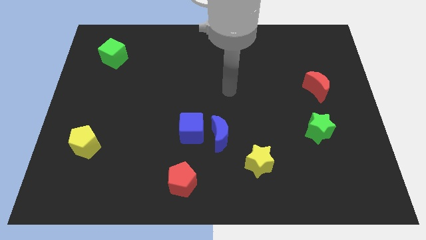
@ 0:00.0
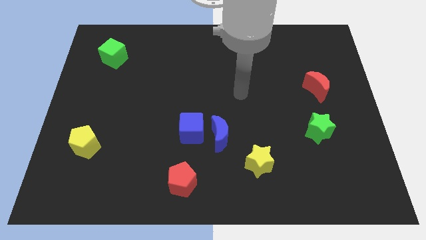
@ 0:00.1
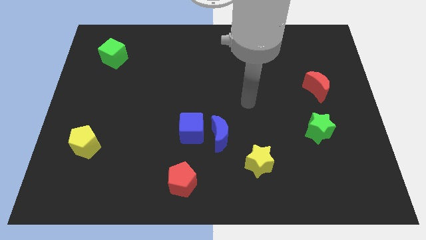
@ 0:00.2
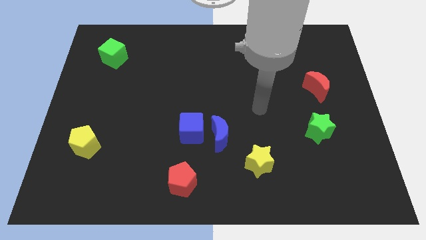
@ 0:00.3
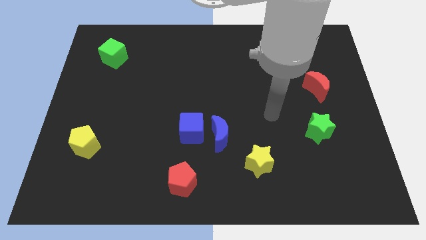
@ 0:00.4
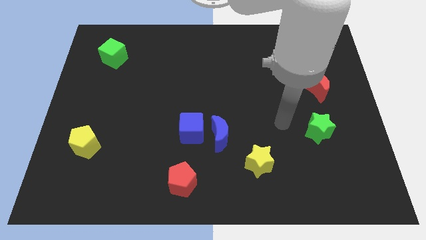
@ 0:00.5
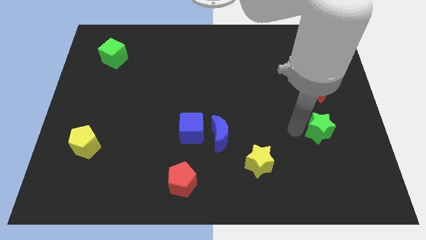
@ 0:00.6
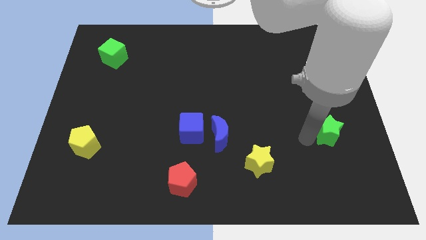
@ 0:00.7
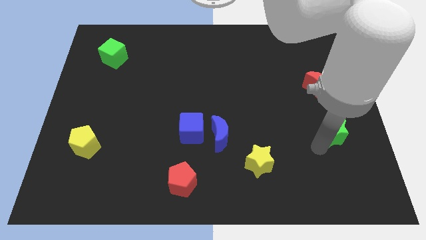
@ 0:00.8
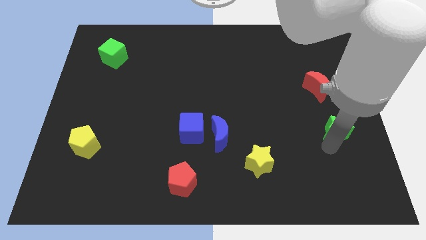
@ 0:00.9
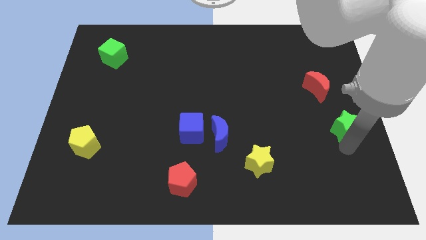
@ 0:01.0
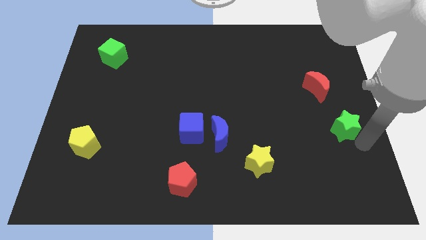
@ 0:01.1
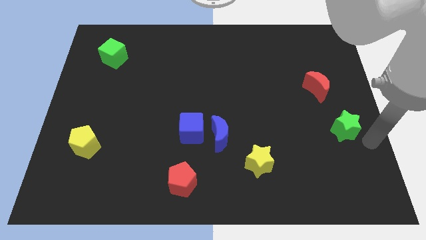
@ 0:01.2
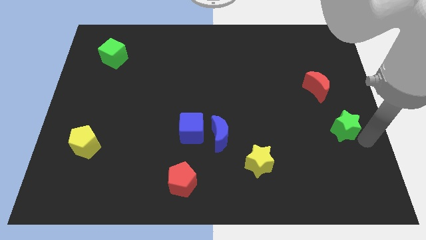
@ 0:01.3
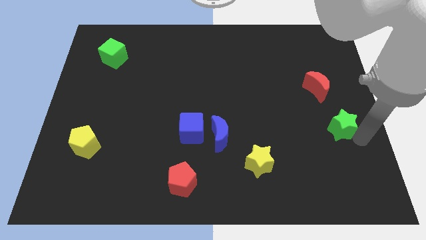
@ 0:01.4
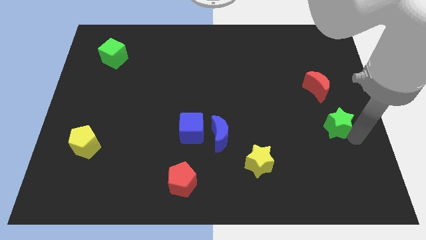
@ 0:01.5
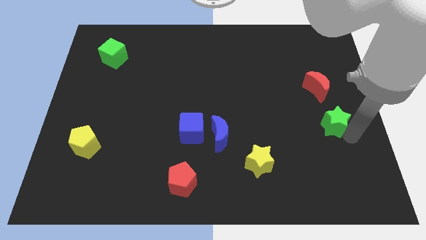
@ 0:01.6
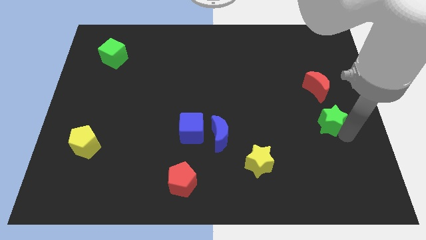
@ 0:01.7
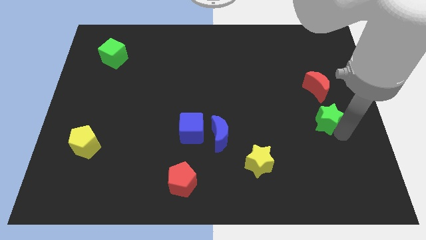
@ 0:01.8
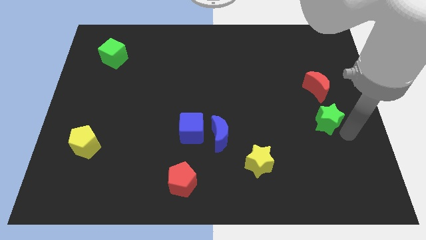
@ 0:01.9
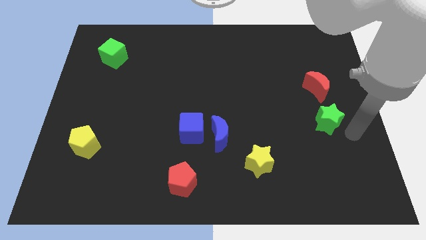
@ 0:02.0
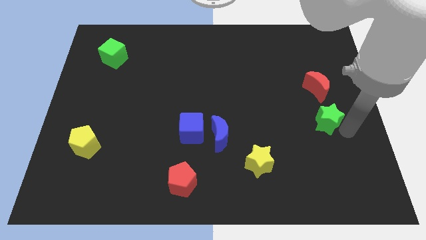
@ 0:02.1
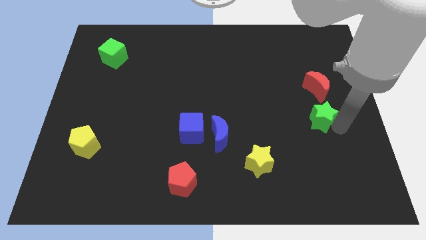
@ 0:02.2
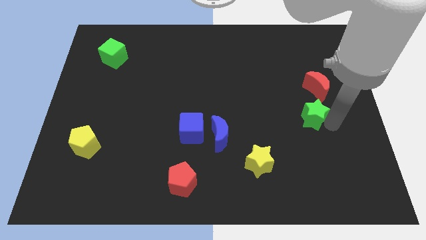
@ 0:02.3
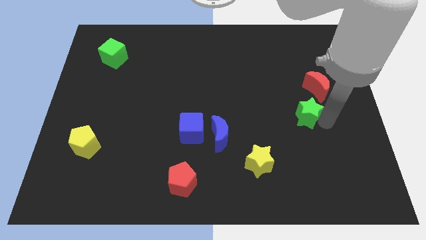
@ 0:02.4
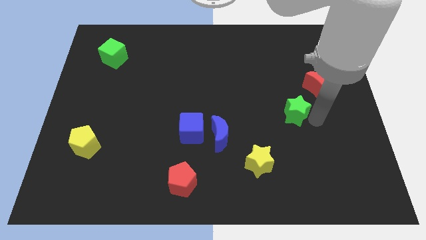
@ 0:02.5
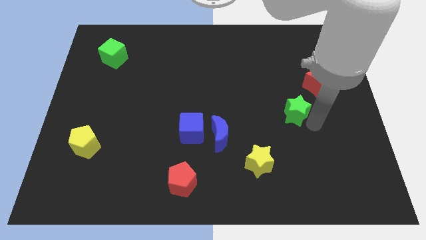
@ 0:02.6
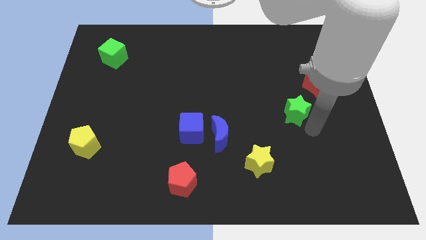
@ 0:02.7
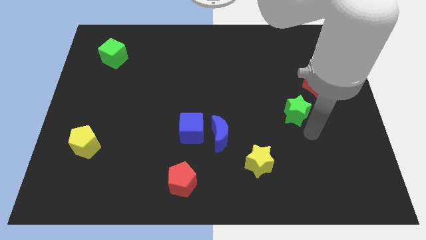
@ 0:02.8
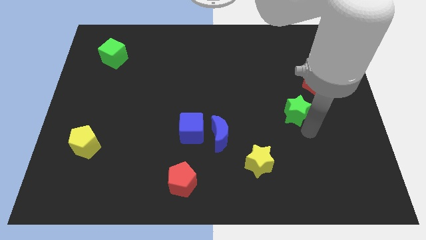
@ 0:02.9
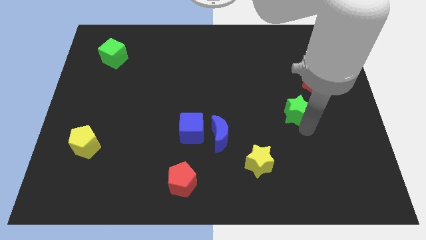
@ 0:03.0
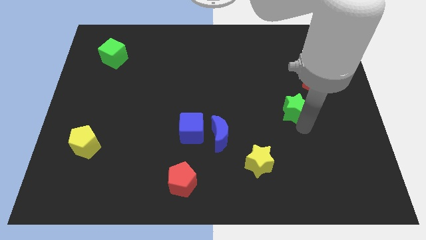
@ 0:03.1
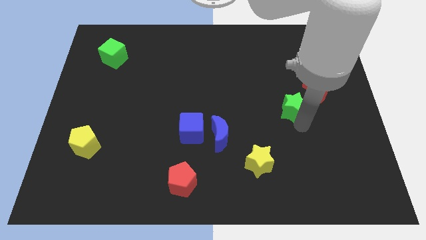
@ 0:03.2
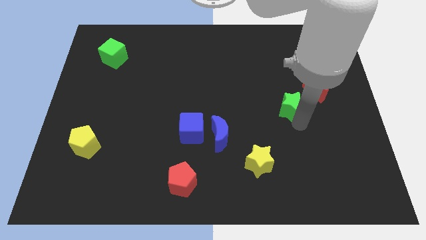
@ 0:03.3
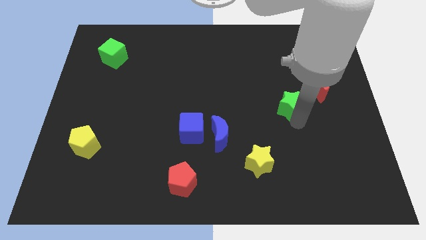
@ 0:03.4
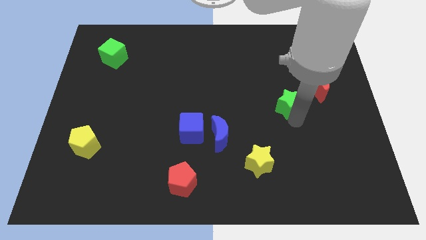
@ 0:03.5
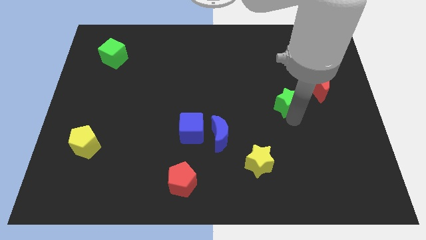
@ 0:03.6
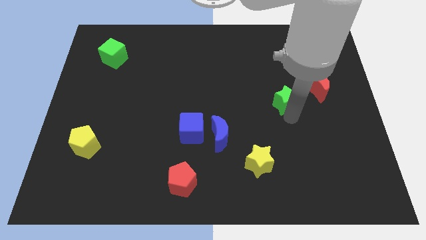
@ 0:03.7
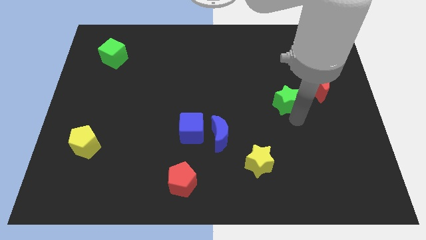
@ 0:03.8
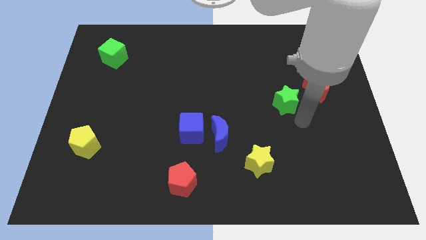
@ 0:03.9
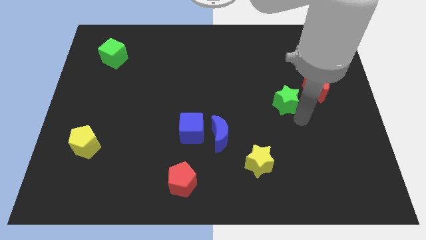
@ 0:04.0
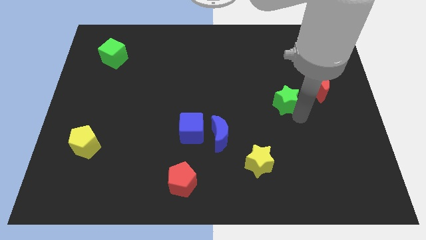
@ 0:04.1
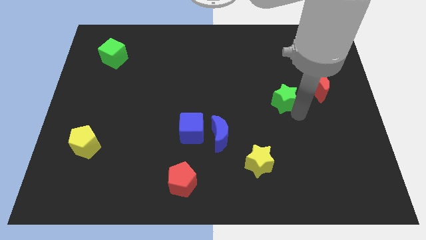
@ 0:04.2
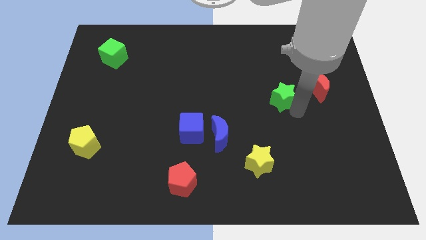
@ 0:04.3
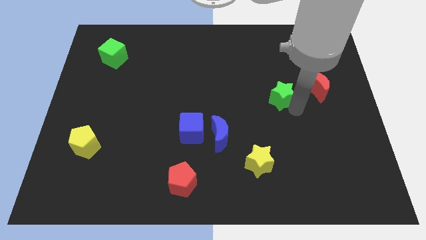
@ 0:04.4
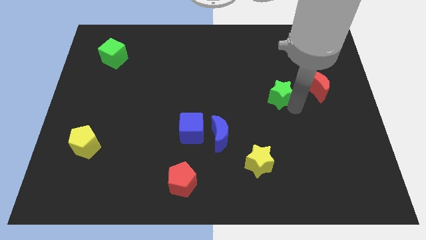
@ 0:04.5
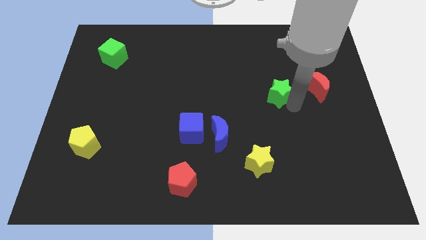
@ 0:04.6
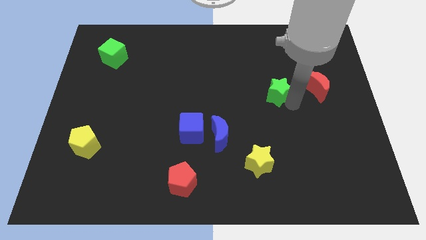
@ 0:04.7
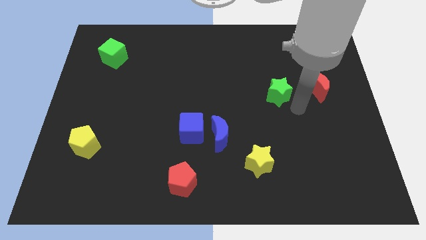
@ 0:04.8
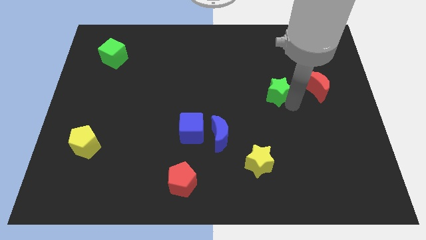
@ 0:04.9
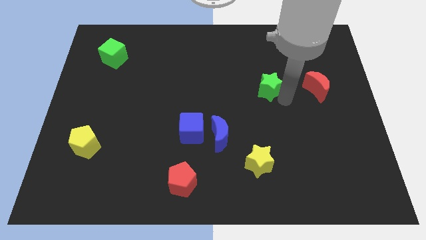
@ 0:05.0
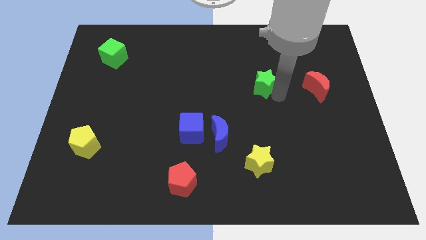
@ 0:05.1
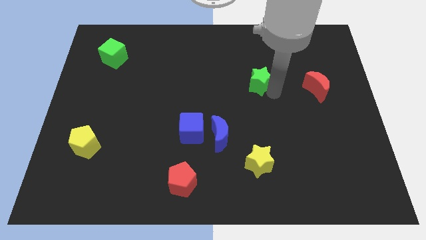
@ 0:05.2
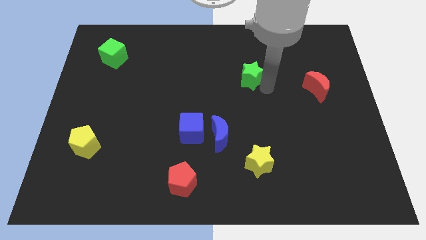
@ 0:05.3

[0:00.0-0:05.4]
push the green star up and to the left

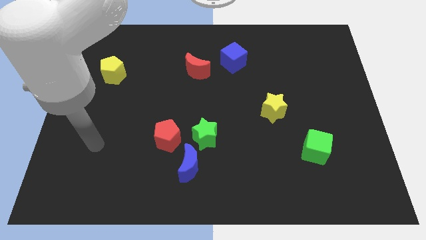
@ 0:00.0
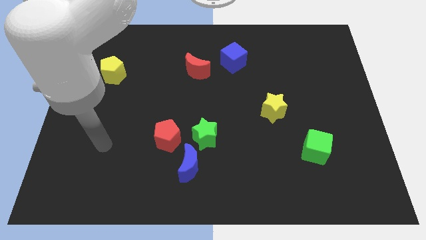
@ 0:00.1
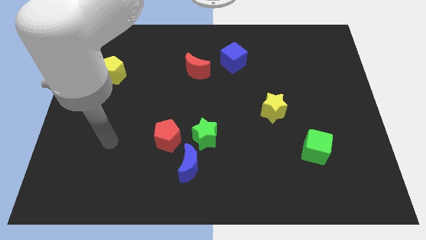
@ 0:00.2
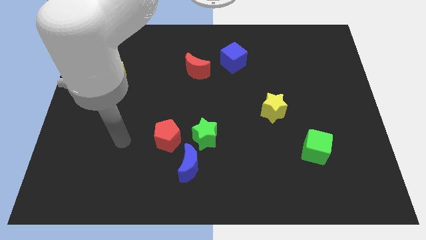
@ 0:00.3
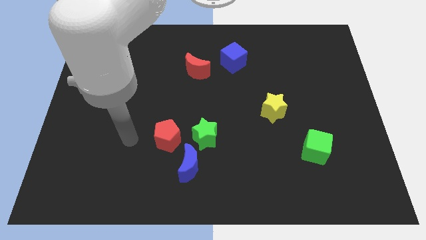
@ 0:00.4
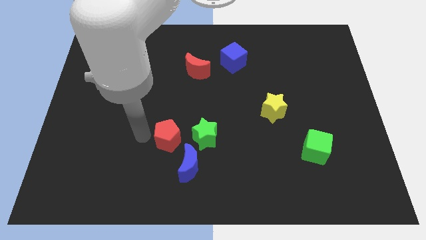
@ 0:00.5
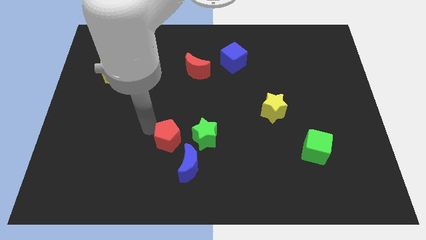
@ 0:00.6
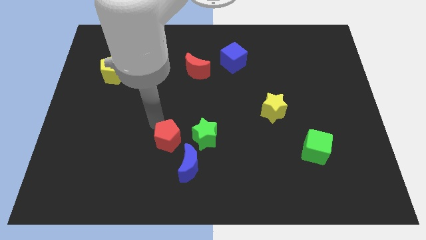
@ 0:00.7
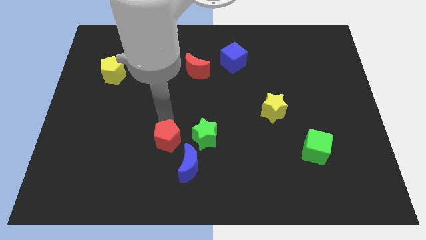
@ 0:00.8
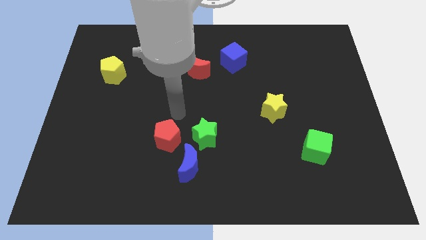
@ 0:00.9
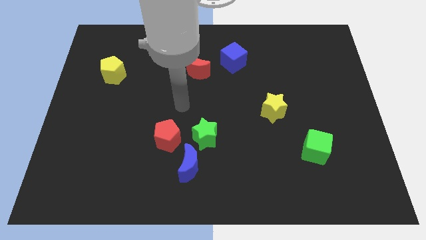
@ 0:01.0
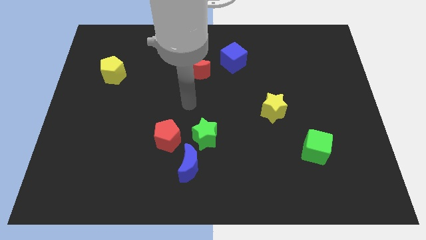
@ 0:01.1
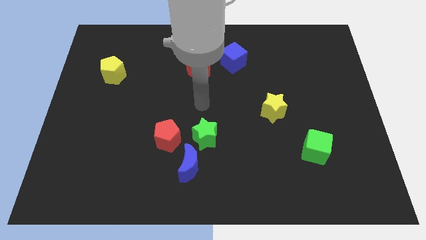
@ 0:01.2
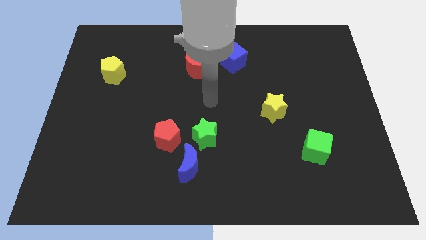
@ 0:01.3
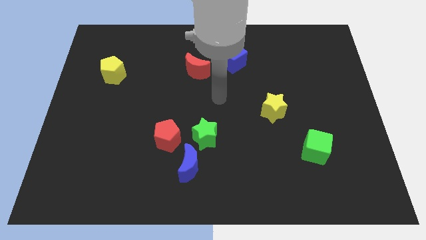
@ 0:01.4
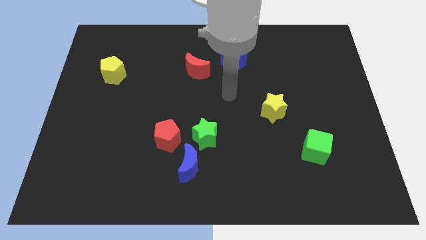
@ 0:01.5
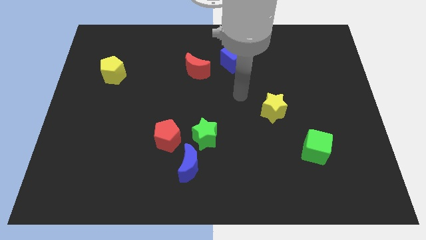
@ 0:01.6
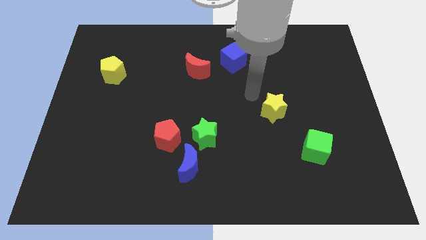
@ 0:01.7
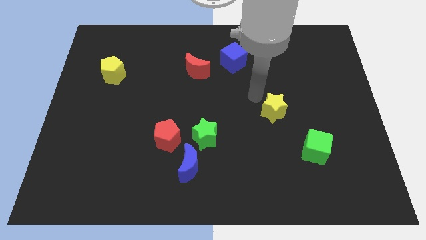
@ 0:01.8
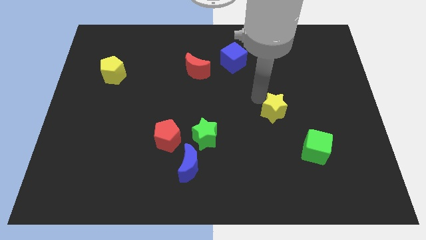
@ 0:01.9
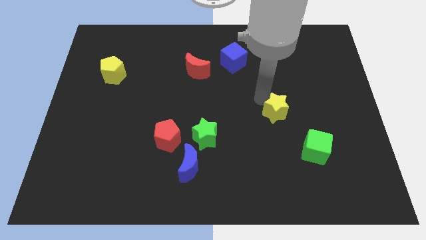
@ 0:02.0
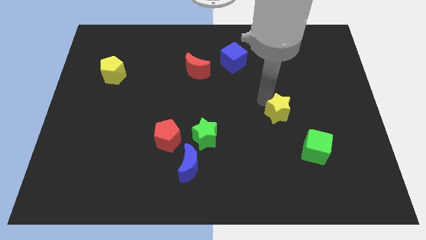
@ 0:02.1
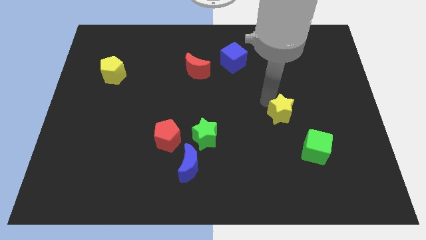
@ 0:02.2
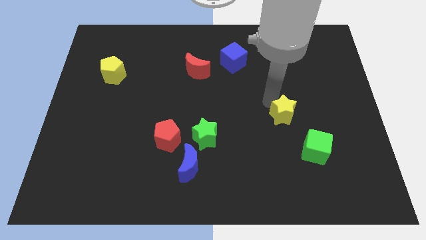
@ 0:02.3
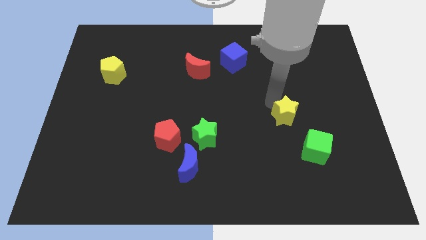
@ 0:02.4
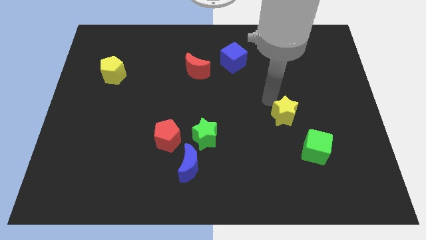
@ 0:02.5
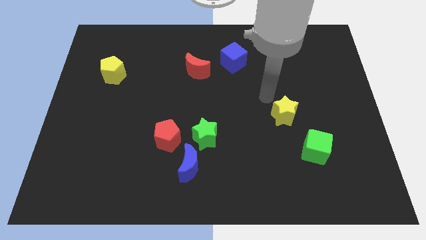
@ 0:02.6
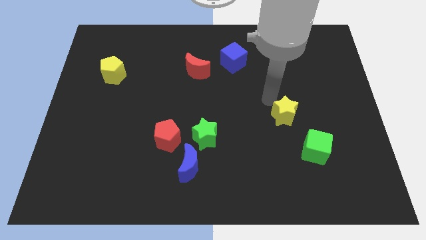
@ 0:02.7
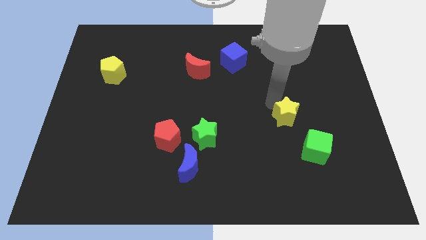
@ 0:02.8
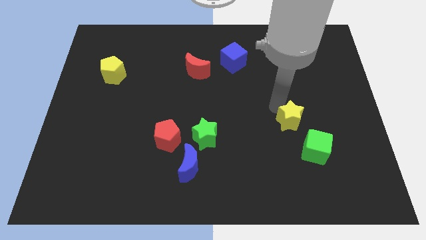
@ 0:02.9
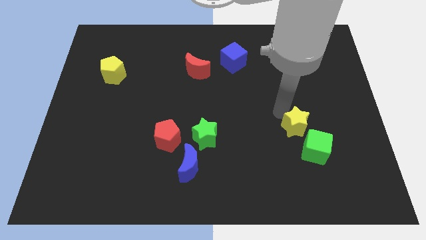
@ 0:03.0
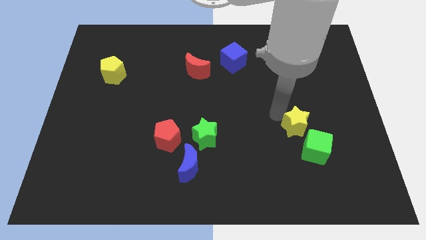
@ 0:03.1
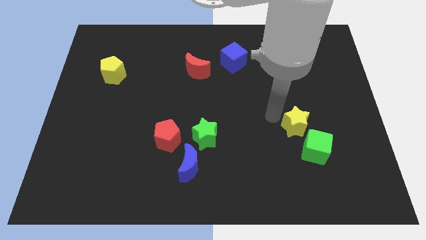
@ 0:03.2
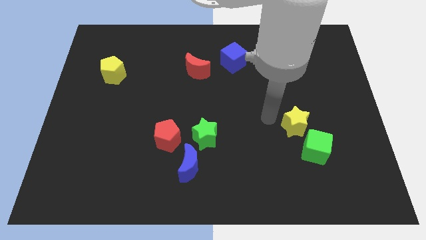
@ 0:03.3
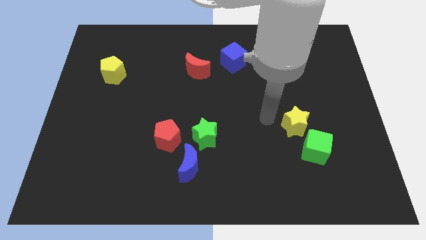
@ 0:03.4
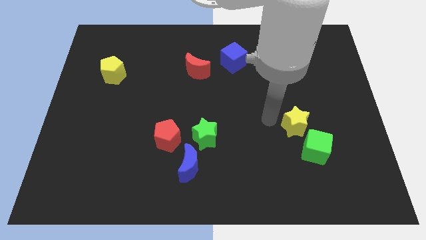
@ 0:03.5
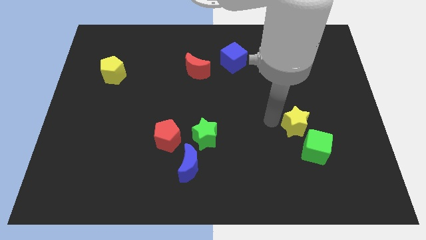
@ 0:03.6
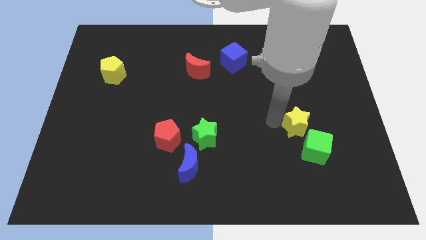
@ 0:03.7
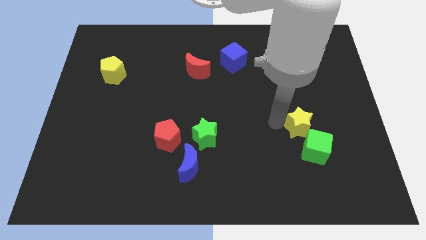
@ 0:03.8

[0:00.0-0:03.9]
slightly push the yellow star downwards and right diagonally
